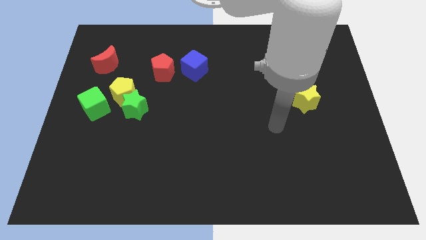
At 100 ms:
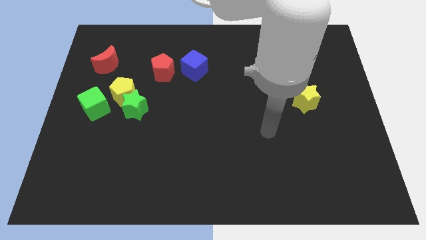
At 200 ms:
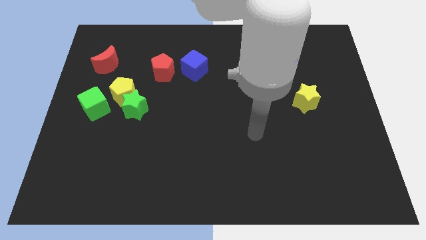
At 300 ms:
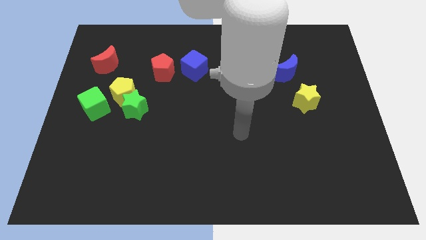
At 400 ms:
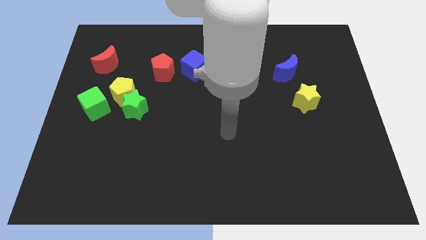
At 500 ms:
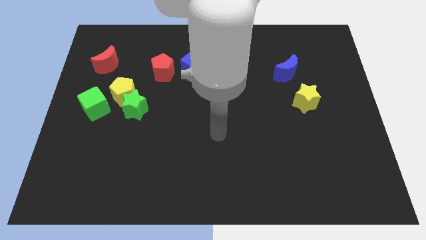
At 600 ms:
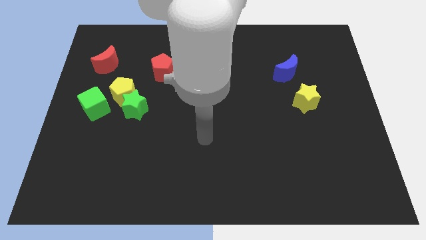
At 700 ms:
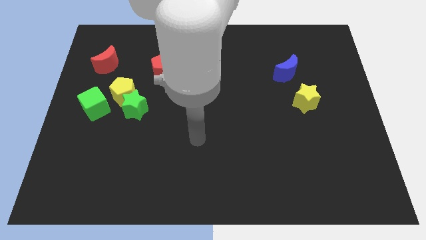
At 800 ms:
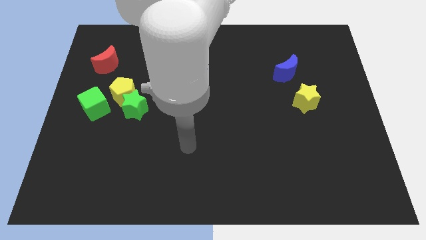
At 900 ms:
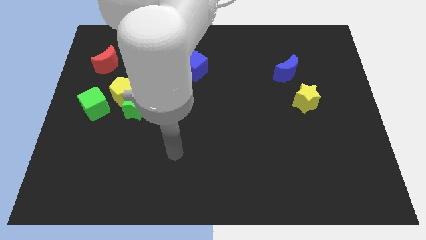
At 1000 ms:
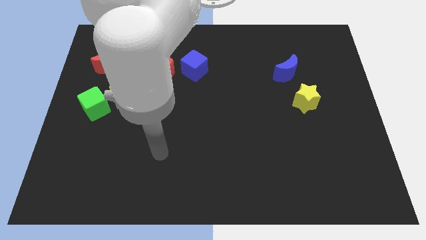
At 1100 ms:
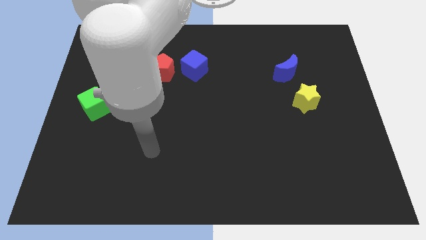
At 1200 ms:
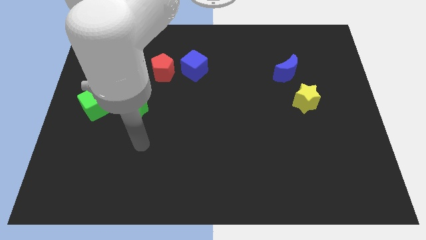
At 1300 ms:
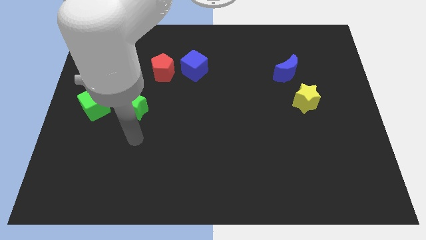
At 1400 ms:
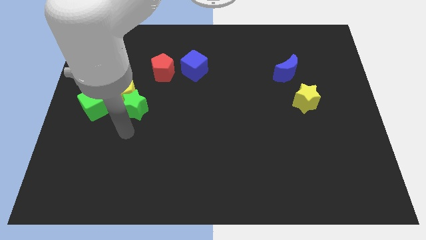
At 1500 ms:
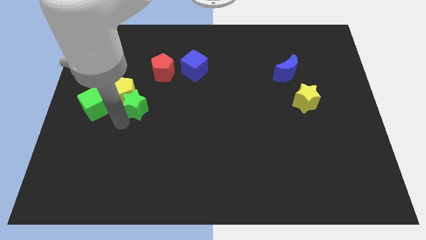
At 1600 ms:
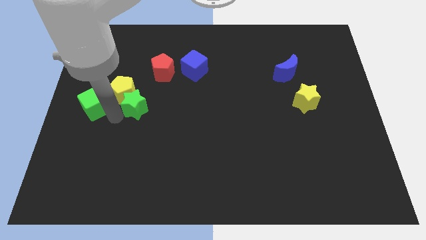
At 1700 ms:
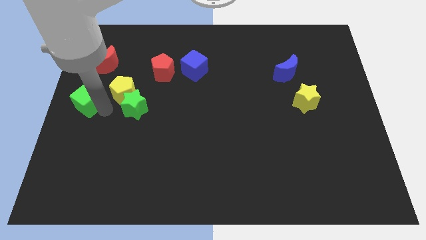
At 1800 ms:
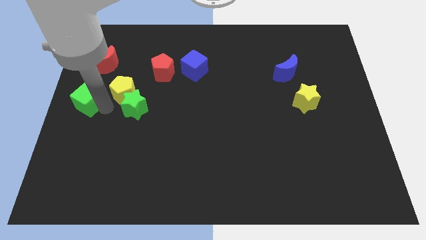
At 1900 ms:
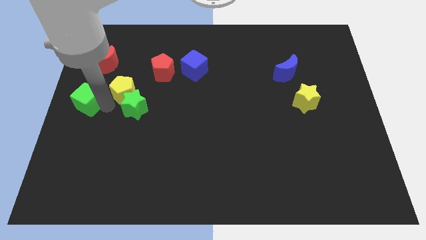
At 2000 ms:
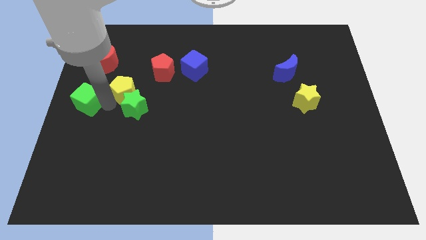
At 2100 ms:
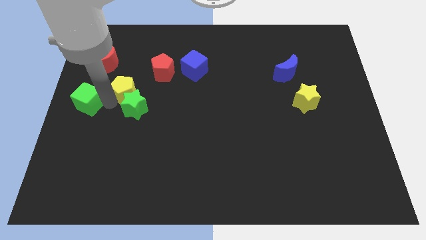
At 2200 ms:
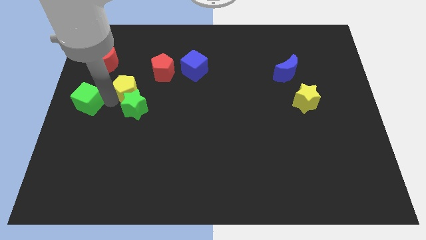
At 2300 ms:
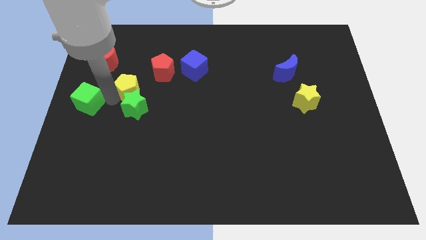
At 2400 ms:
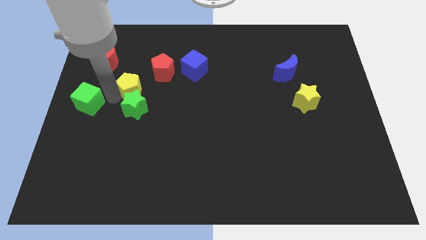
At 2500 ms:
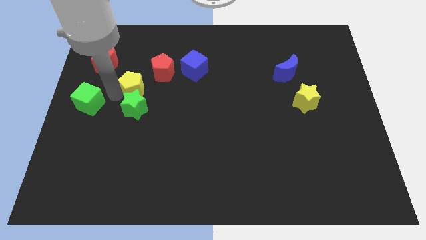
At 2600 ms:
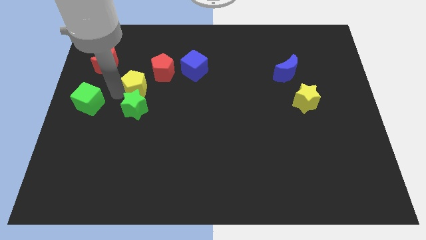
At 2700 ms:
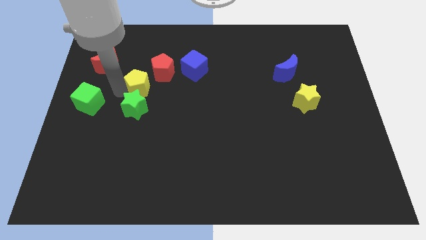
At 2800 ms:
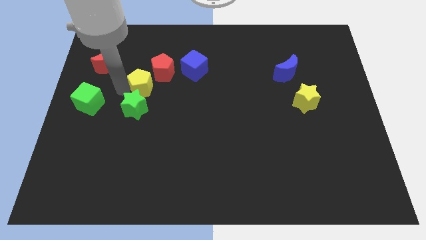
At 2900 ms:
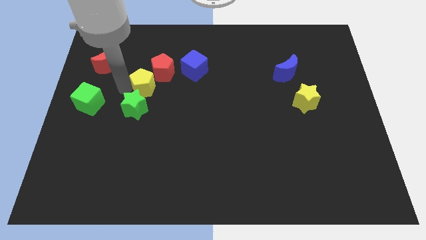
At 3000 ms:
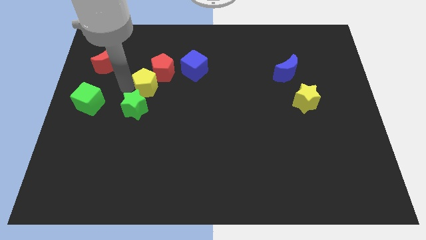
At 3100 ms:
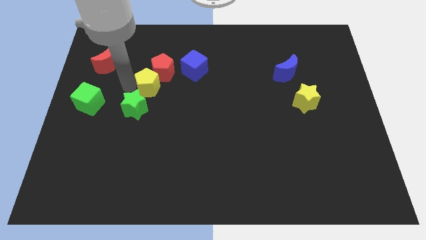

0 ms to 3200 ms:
pull the yellow pentagon apart from the green star and green cube

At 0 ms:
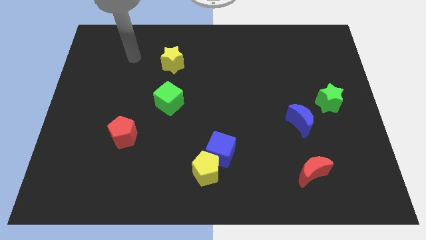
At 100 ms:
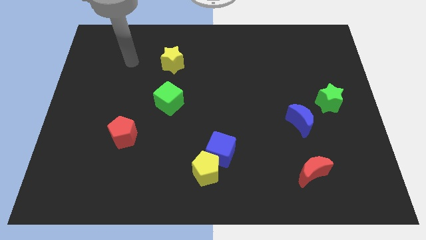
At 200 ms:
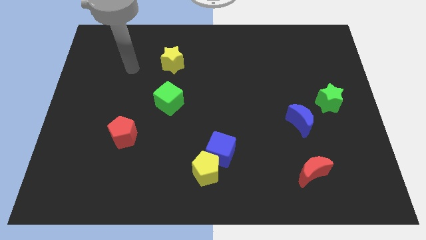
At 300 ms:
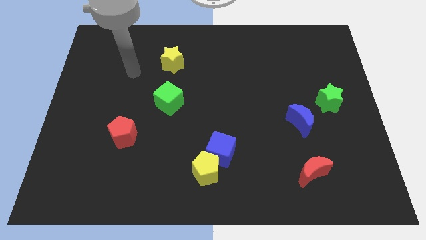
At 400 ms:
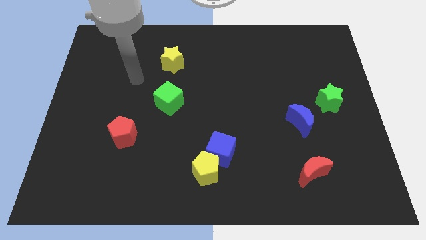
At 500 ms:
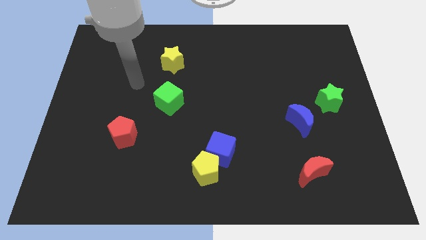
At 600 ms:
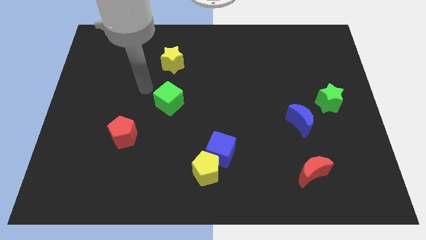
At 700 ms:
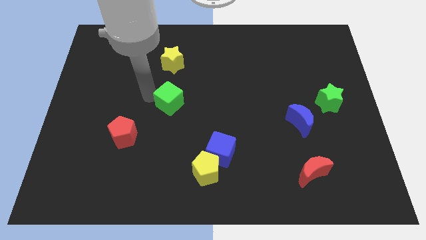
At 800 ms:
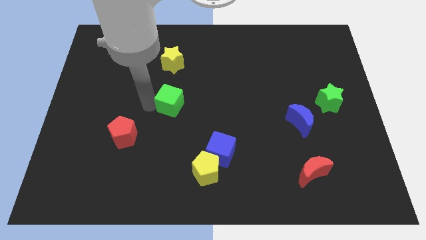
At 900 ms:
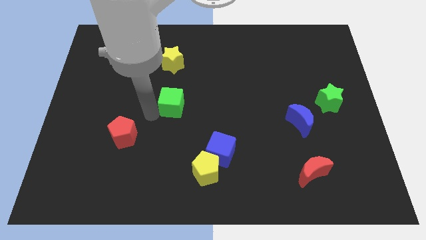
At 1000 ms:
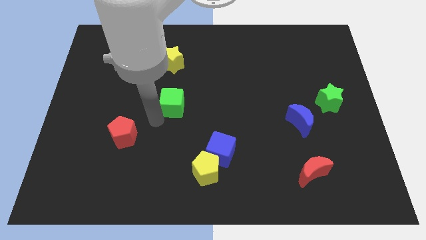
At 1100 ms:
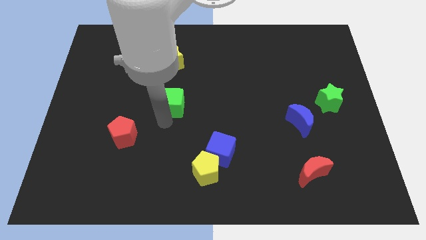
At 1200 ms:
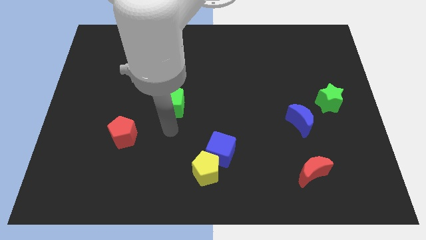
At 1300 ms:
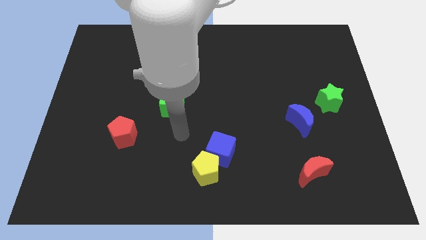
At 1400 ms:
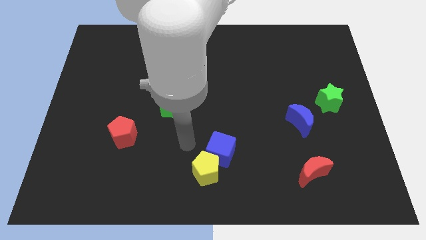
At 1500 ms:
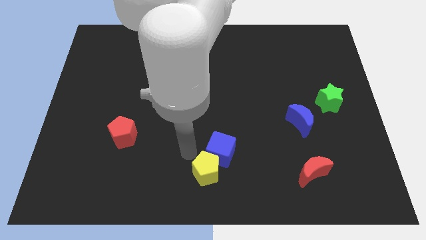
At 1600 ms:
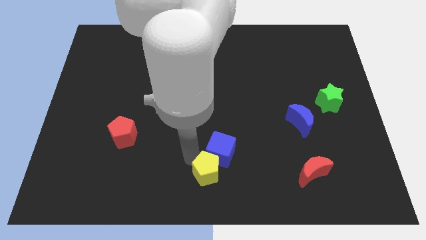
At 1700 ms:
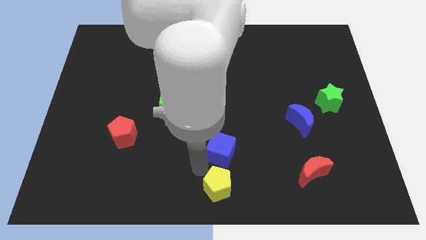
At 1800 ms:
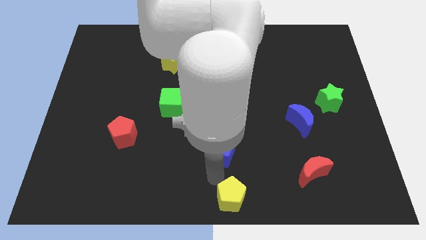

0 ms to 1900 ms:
separate the blue cube from the yellow pentagon

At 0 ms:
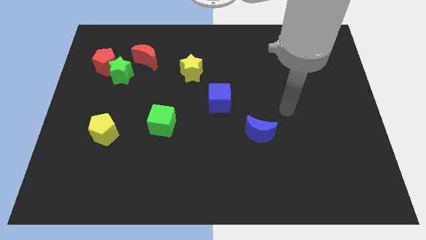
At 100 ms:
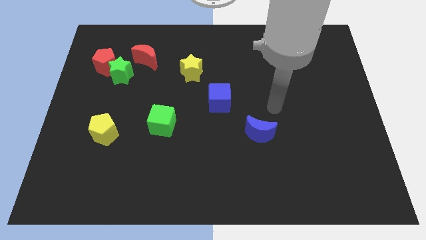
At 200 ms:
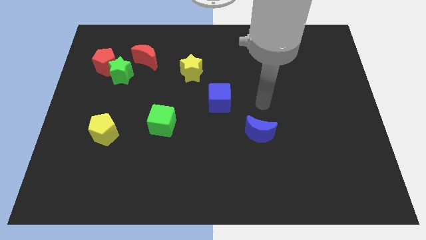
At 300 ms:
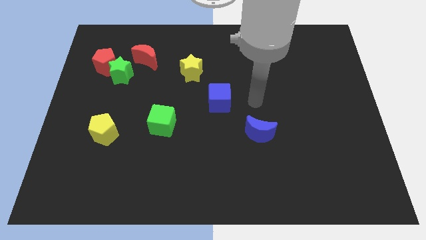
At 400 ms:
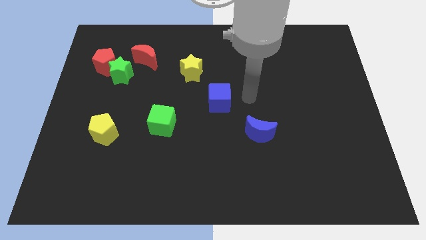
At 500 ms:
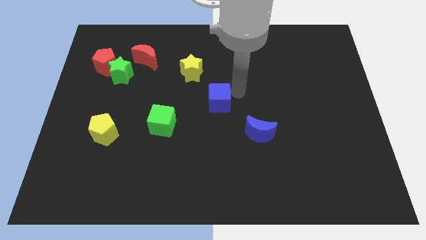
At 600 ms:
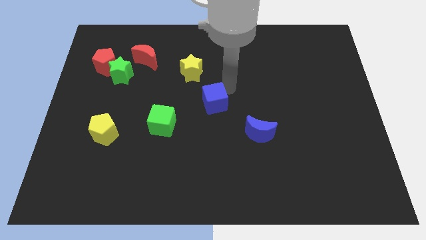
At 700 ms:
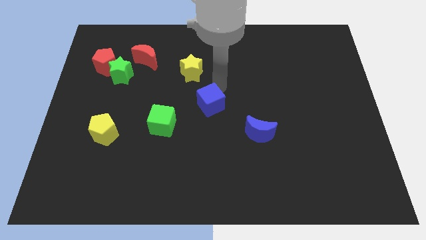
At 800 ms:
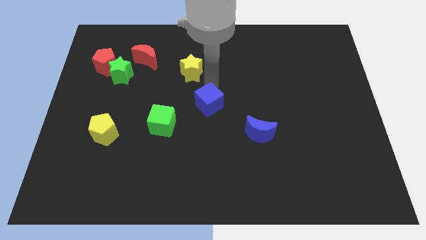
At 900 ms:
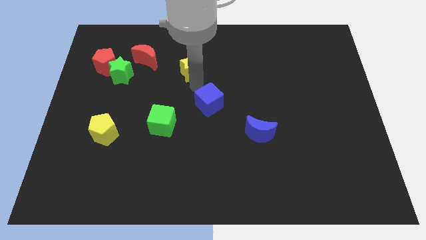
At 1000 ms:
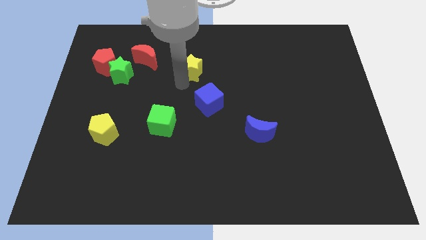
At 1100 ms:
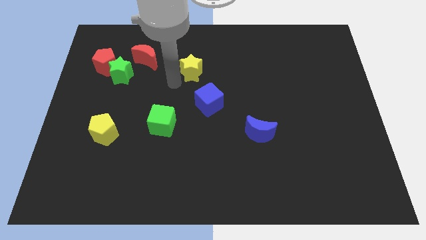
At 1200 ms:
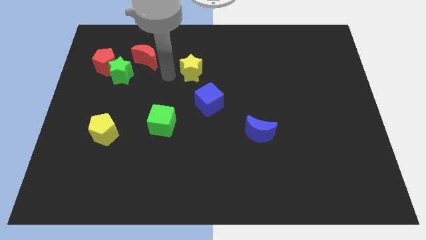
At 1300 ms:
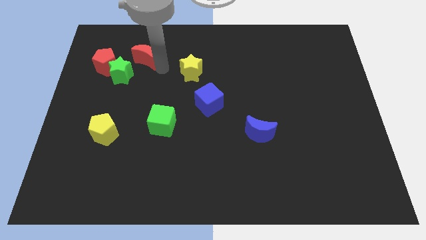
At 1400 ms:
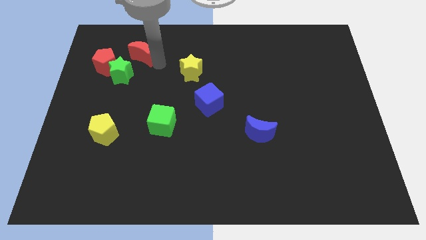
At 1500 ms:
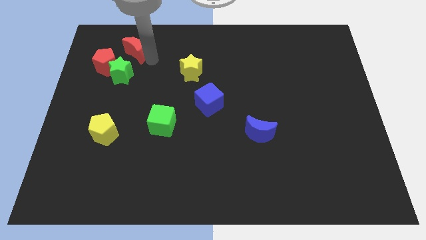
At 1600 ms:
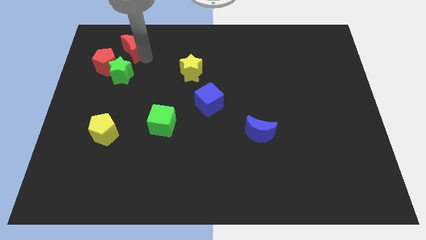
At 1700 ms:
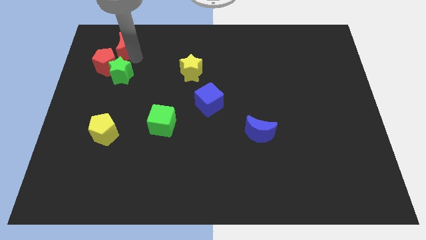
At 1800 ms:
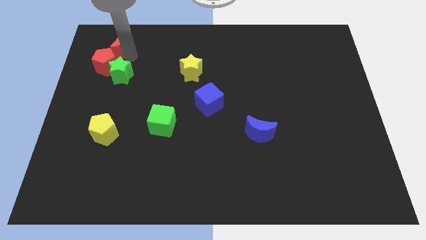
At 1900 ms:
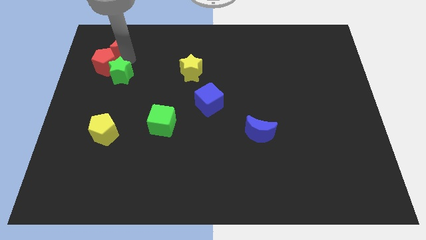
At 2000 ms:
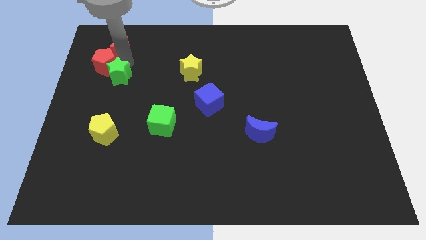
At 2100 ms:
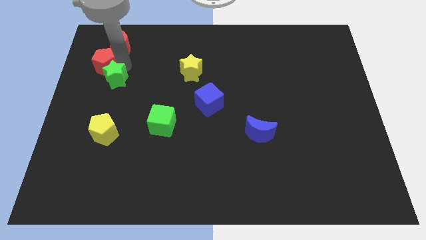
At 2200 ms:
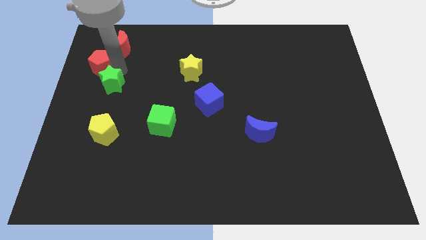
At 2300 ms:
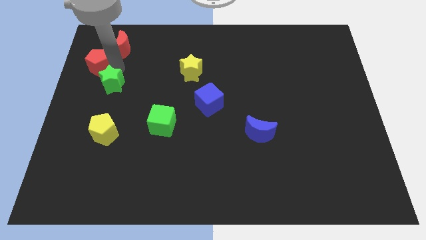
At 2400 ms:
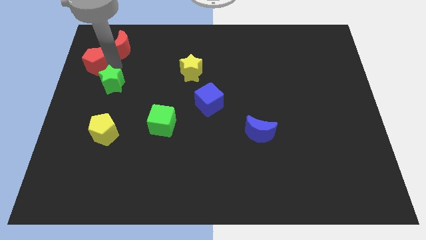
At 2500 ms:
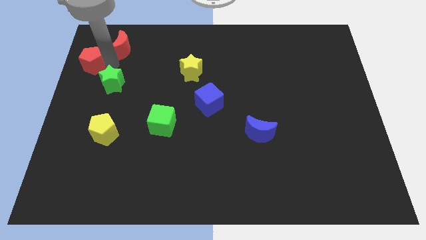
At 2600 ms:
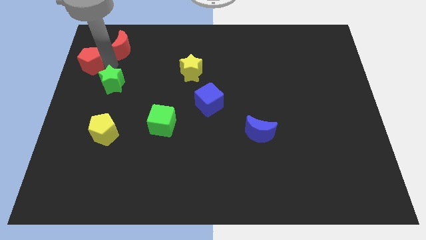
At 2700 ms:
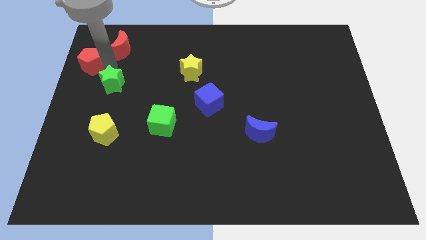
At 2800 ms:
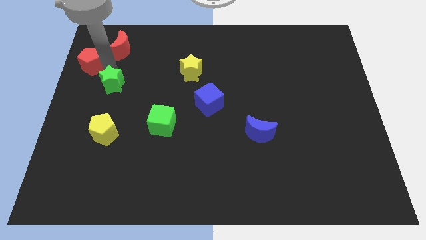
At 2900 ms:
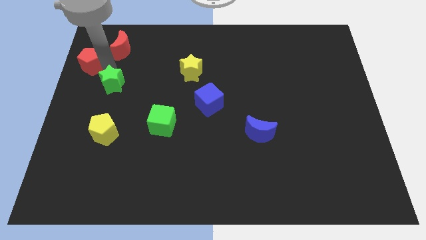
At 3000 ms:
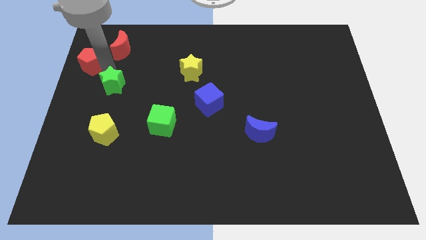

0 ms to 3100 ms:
pull the green star apart from the red pentagon and red moon

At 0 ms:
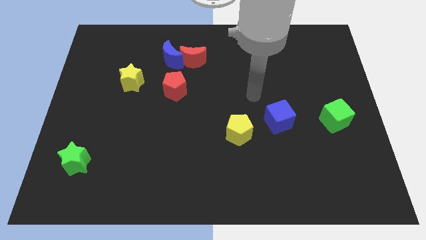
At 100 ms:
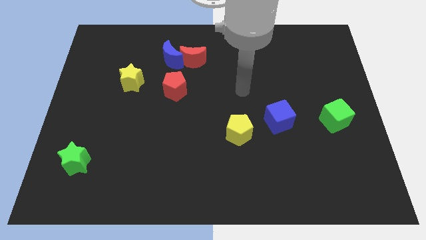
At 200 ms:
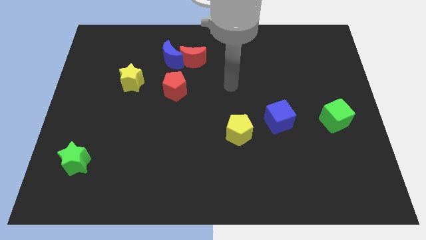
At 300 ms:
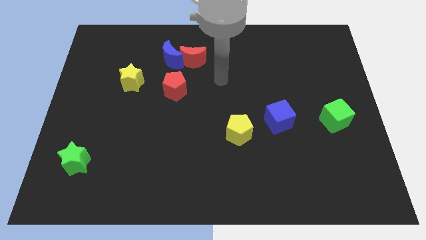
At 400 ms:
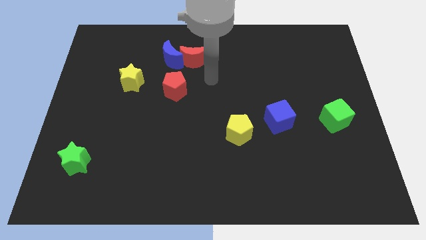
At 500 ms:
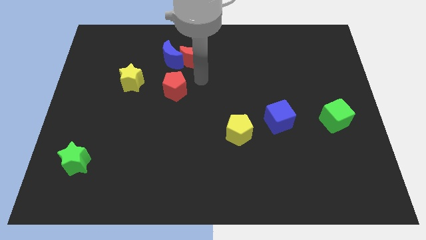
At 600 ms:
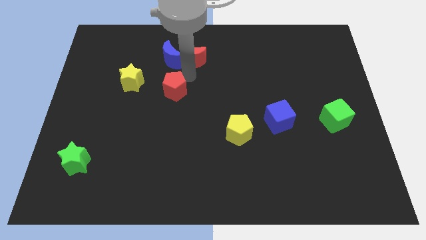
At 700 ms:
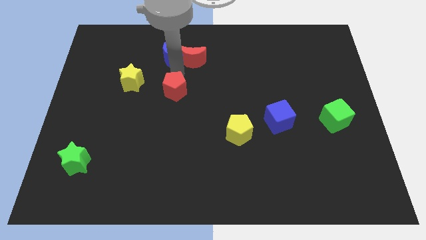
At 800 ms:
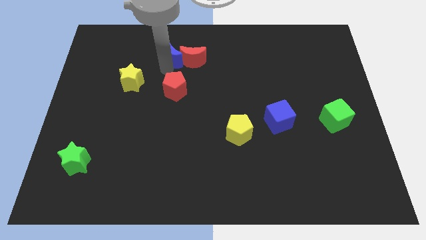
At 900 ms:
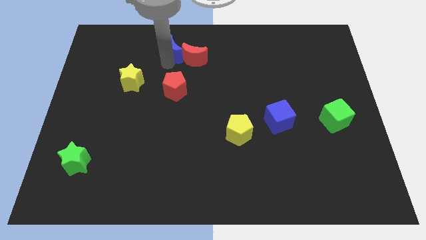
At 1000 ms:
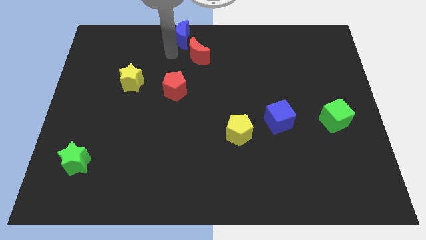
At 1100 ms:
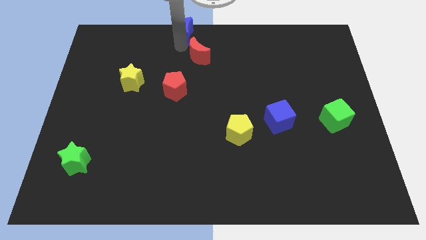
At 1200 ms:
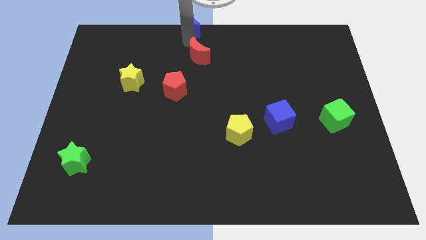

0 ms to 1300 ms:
move the red moon away from the blue moon
